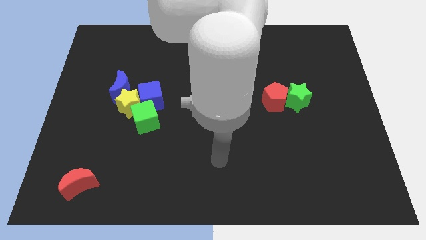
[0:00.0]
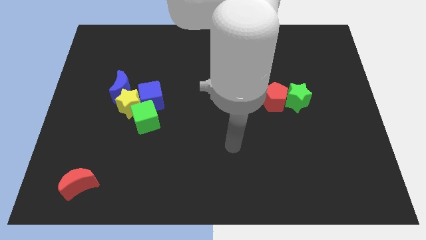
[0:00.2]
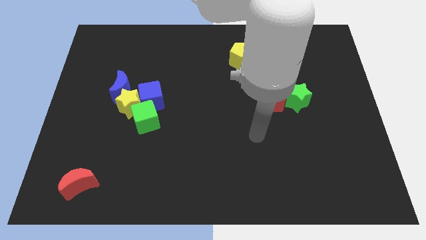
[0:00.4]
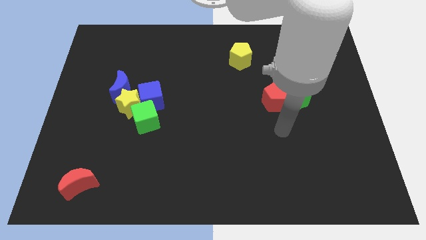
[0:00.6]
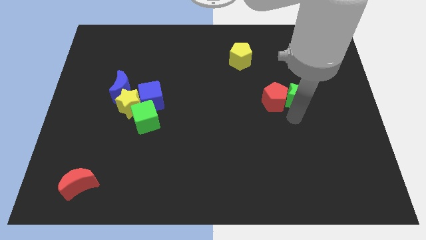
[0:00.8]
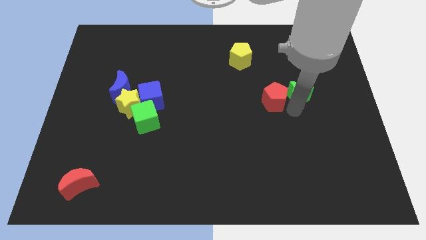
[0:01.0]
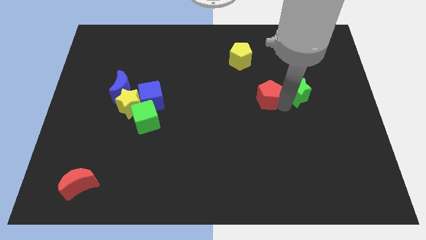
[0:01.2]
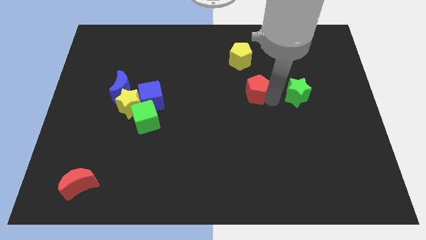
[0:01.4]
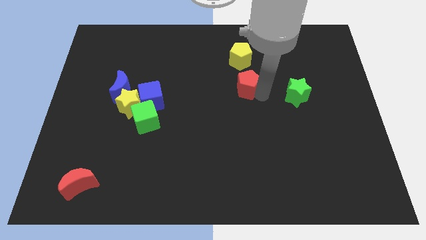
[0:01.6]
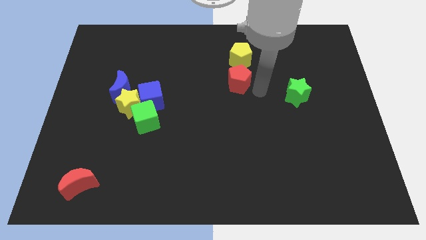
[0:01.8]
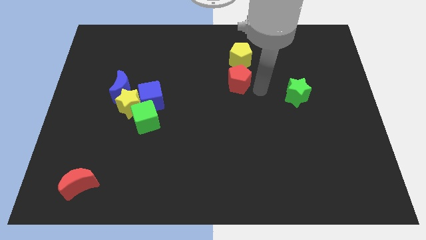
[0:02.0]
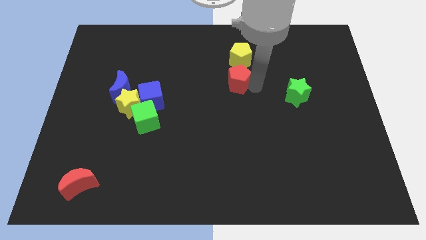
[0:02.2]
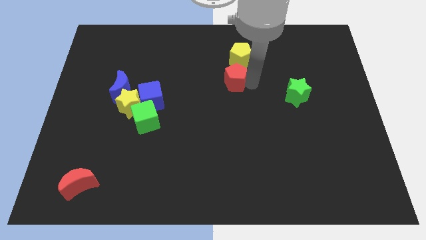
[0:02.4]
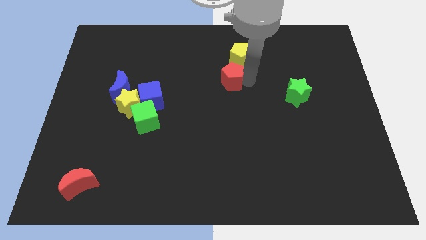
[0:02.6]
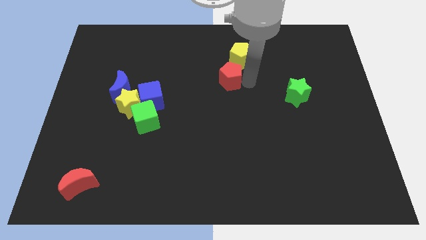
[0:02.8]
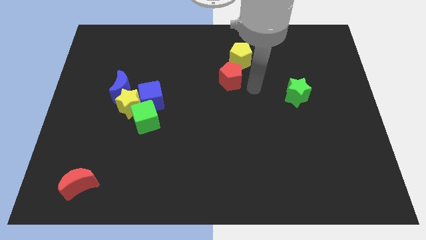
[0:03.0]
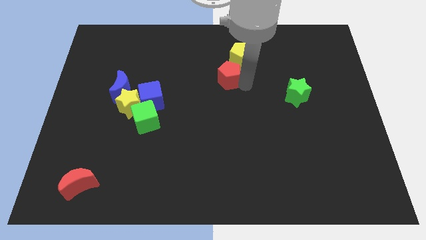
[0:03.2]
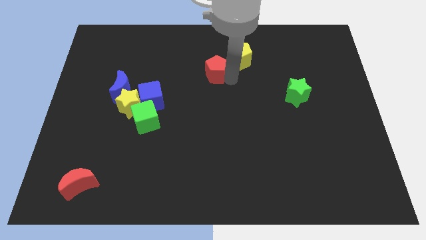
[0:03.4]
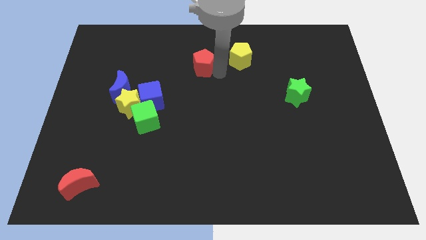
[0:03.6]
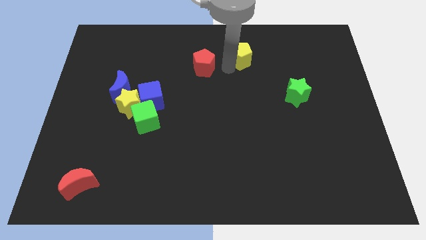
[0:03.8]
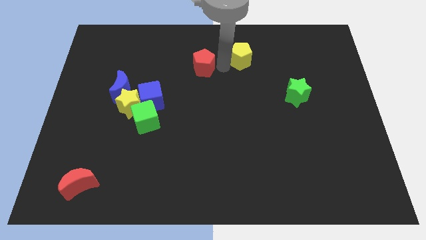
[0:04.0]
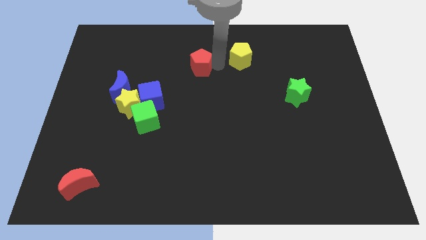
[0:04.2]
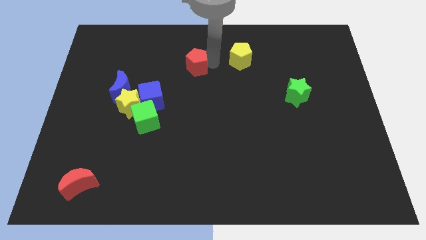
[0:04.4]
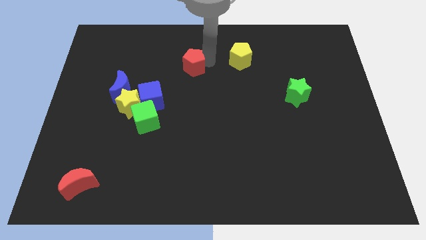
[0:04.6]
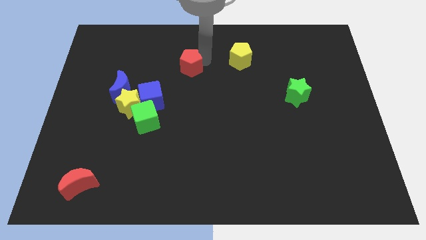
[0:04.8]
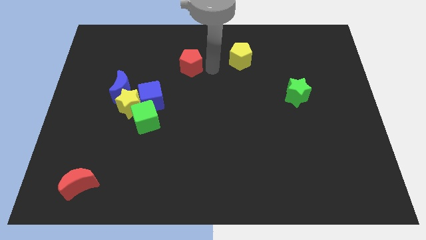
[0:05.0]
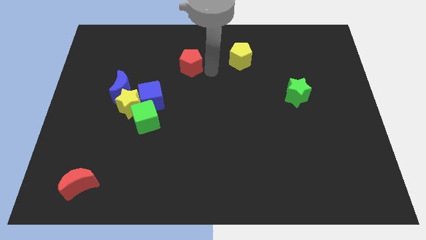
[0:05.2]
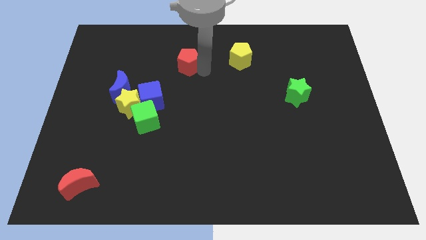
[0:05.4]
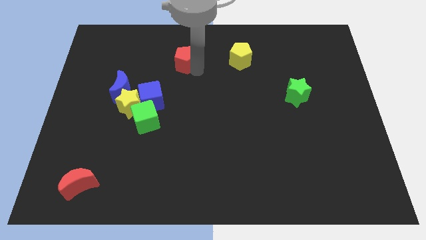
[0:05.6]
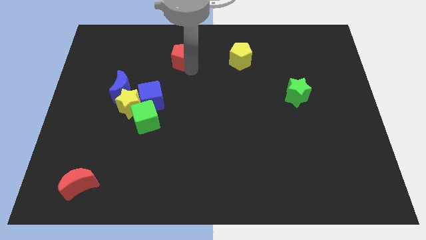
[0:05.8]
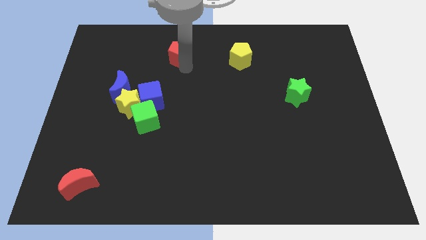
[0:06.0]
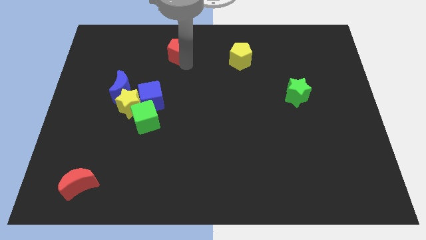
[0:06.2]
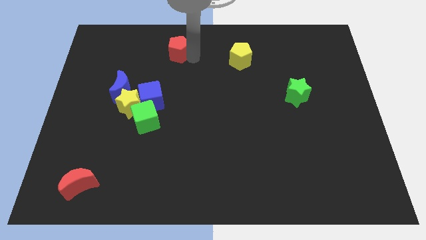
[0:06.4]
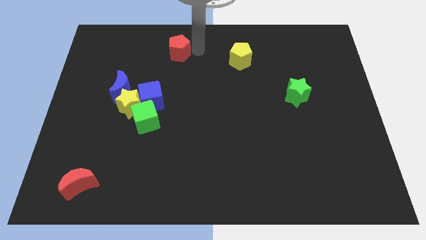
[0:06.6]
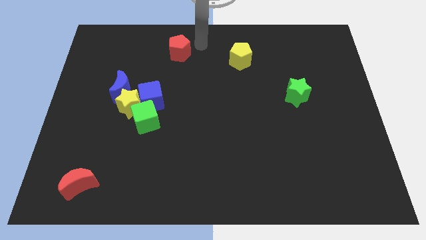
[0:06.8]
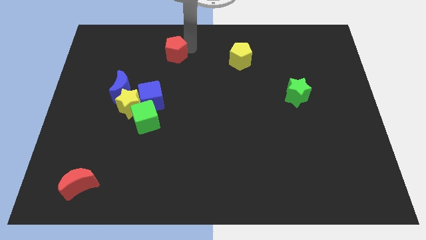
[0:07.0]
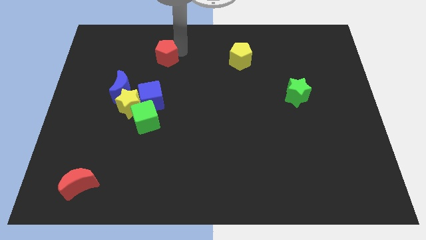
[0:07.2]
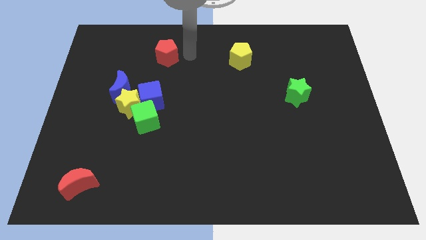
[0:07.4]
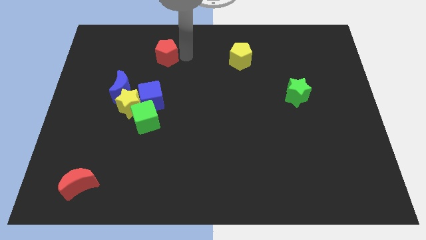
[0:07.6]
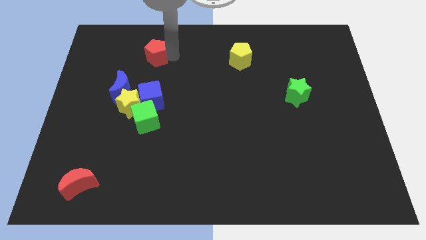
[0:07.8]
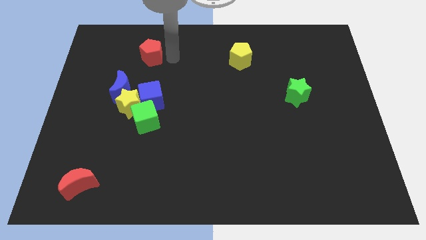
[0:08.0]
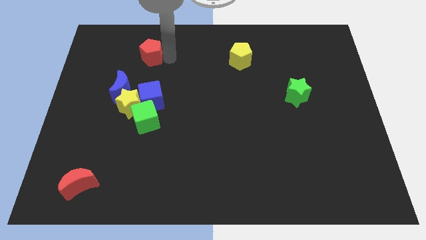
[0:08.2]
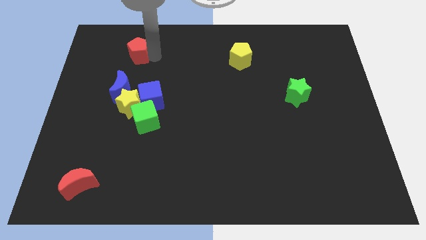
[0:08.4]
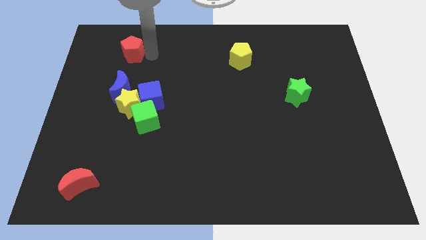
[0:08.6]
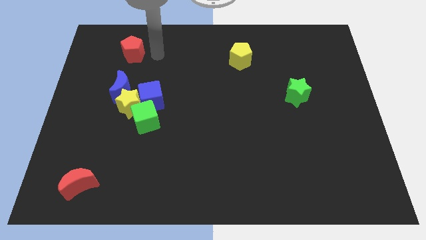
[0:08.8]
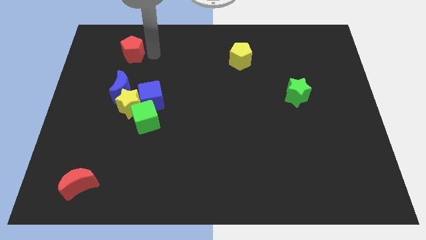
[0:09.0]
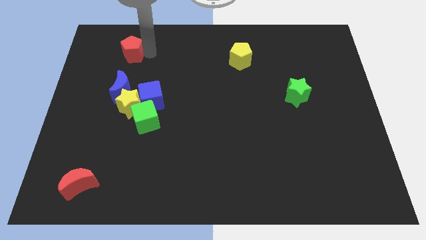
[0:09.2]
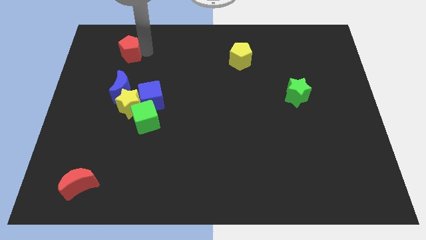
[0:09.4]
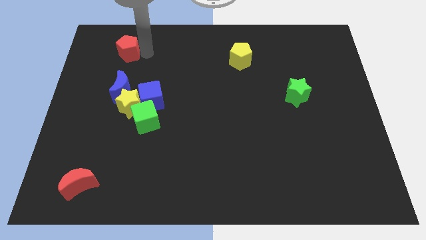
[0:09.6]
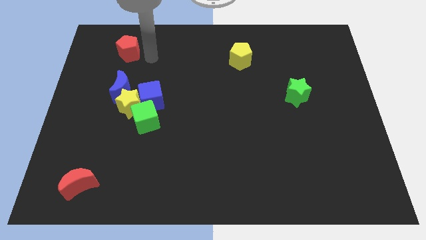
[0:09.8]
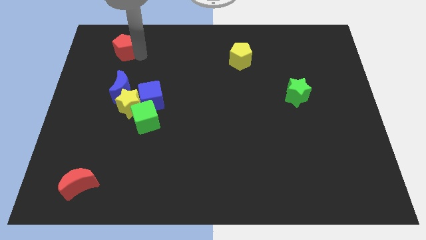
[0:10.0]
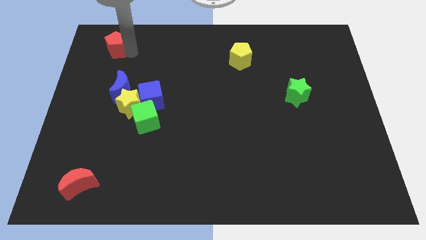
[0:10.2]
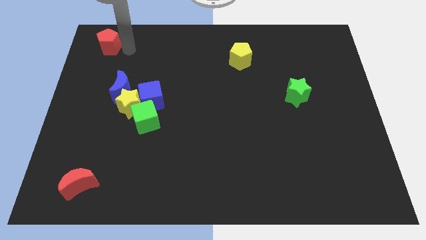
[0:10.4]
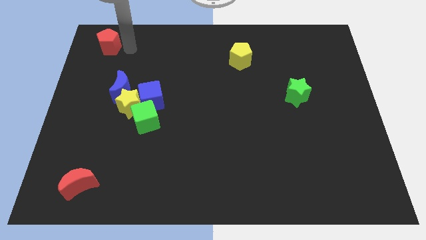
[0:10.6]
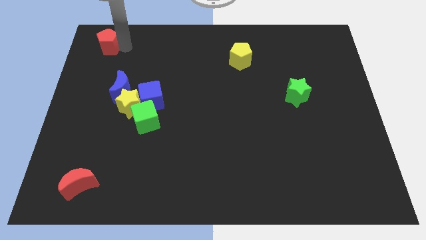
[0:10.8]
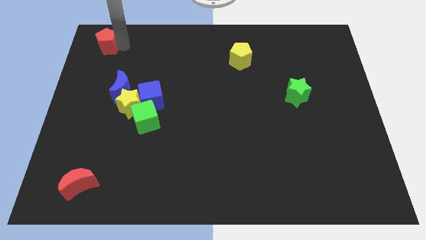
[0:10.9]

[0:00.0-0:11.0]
slide the red pentagon to the top left of the board

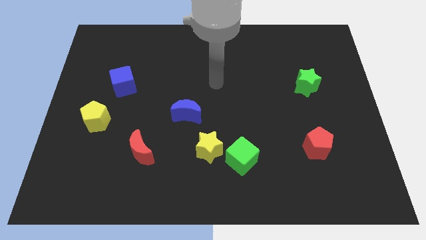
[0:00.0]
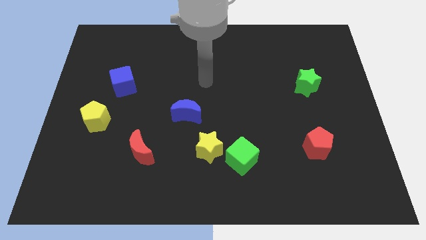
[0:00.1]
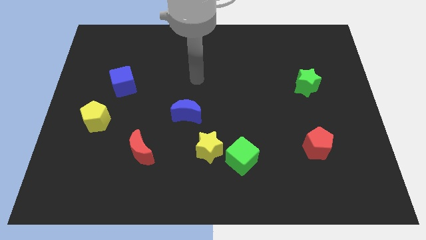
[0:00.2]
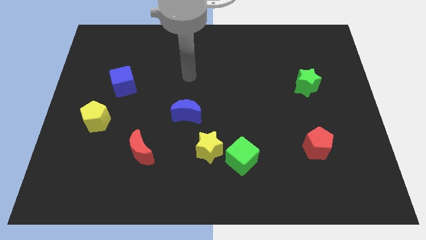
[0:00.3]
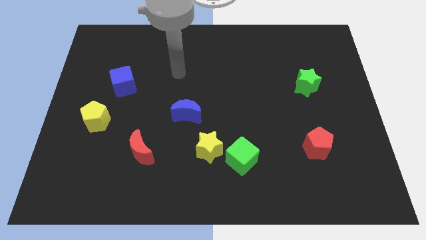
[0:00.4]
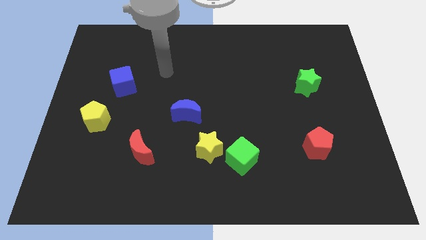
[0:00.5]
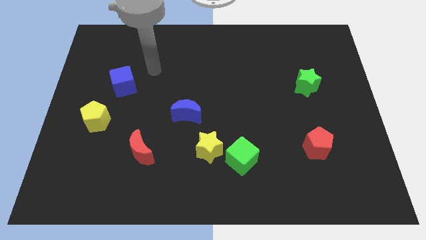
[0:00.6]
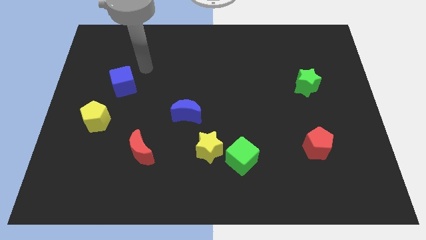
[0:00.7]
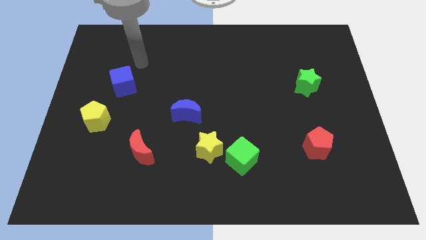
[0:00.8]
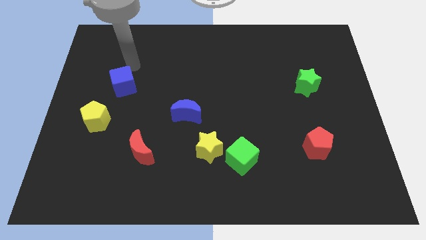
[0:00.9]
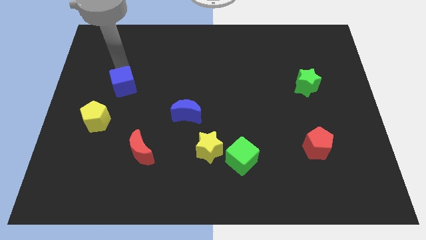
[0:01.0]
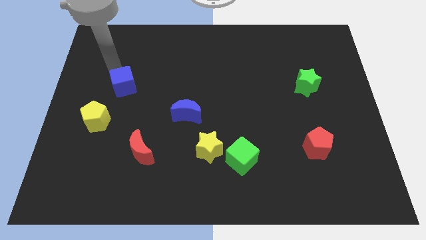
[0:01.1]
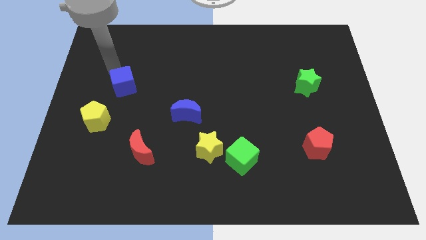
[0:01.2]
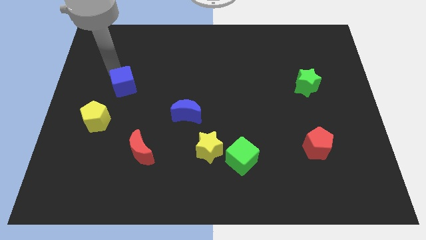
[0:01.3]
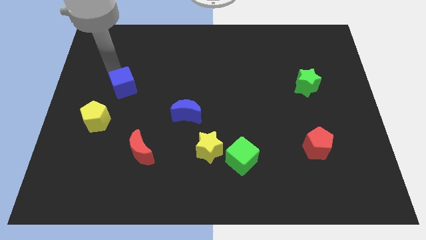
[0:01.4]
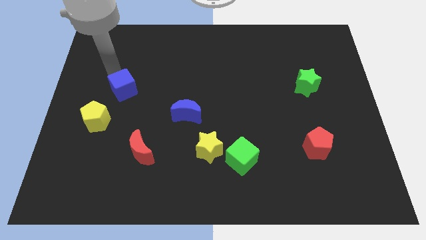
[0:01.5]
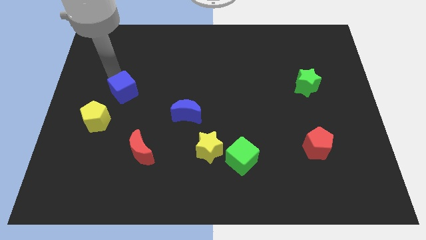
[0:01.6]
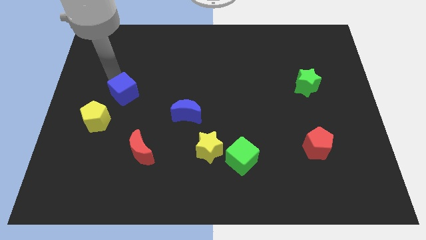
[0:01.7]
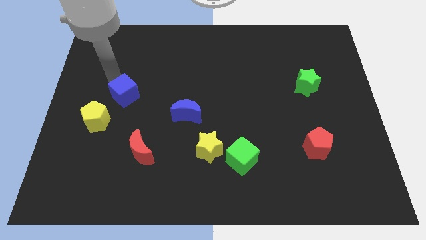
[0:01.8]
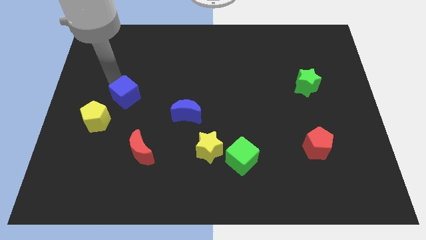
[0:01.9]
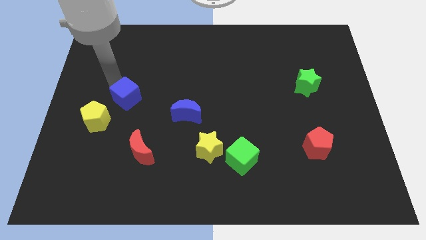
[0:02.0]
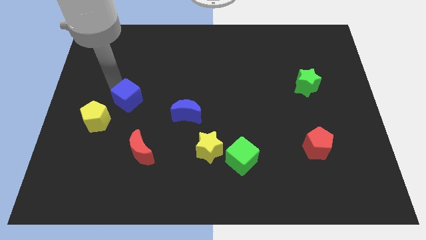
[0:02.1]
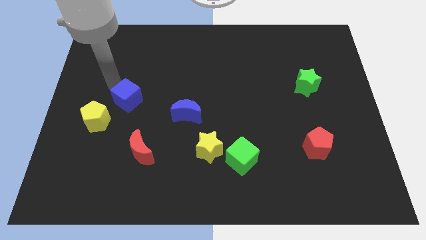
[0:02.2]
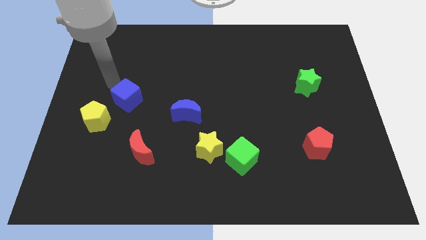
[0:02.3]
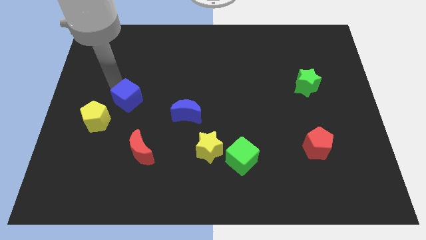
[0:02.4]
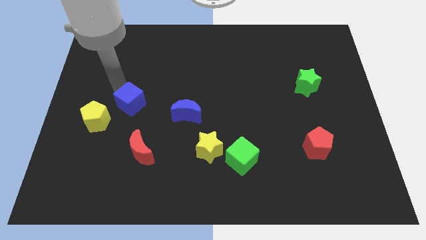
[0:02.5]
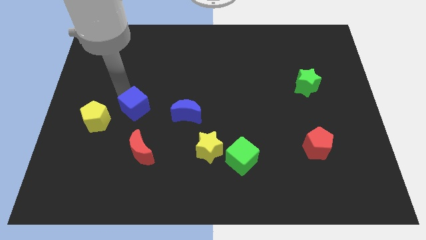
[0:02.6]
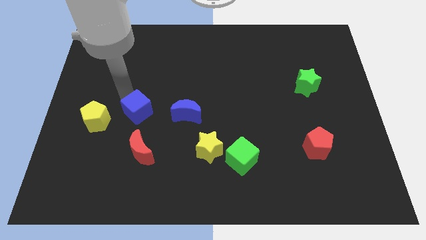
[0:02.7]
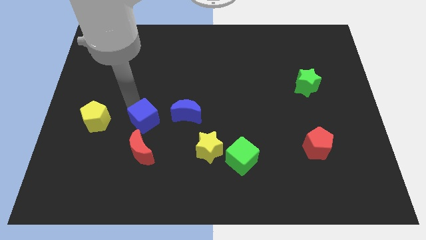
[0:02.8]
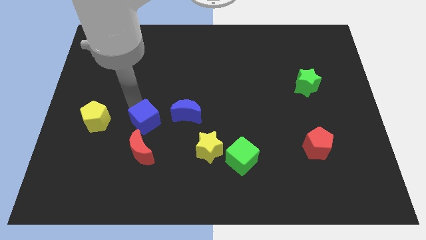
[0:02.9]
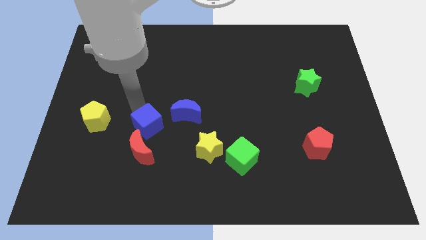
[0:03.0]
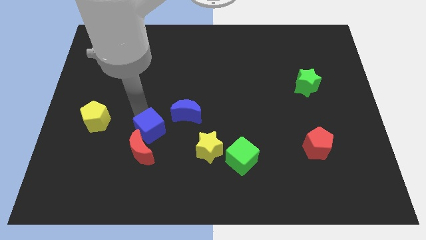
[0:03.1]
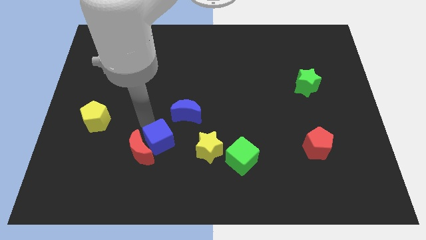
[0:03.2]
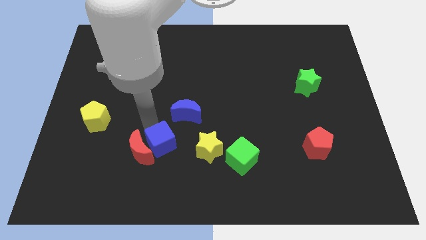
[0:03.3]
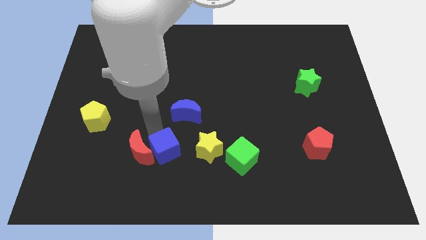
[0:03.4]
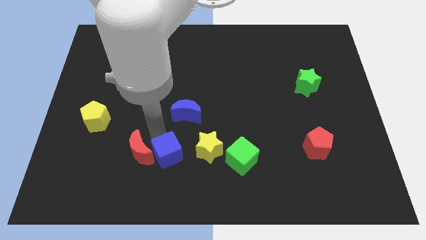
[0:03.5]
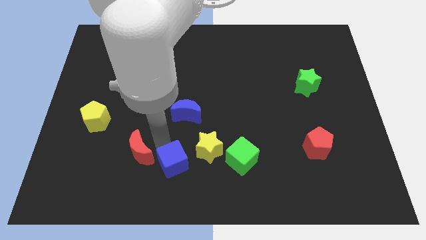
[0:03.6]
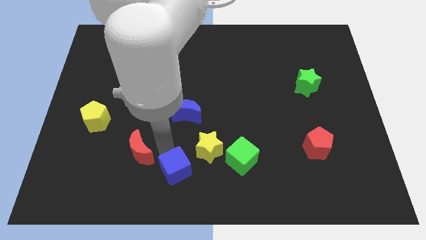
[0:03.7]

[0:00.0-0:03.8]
move the blue cube to the bottom side
